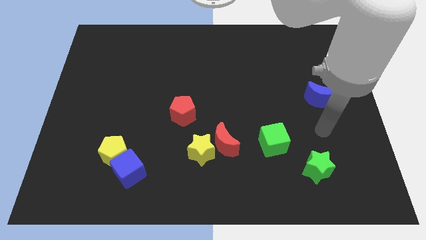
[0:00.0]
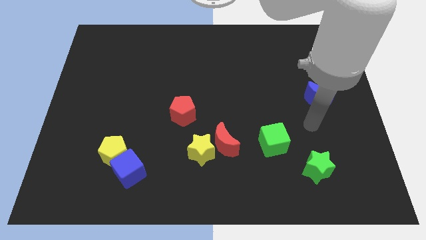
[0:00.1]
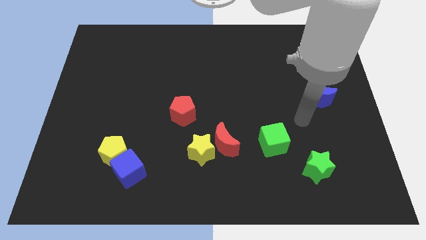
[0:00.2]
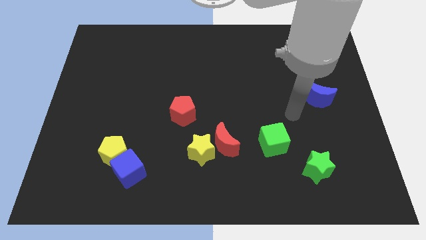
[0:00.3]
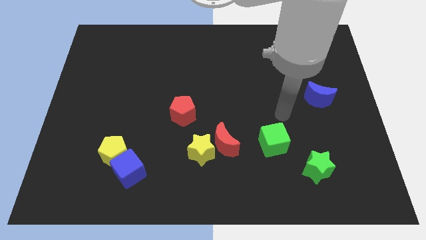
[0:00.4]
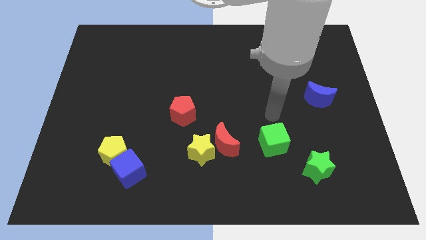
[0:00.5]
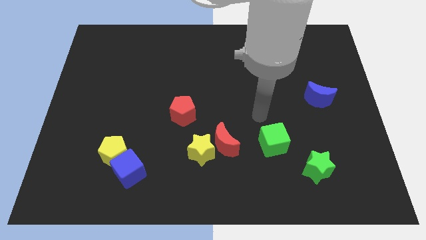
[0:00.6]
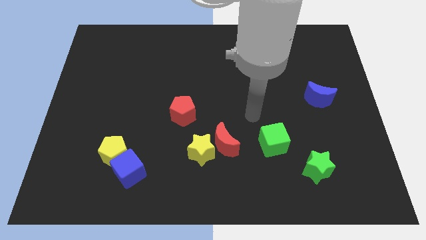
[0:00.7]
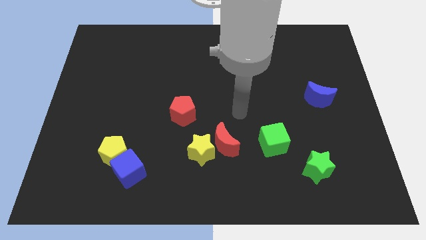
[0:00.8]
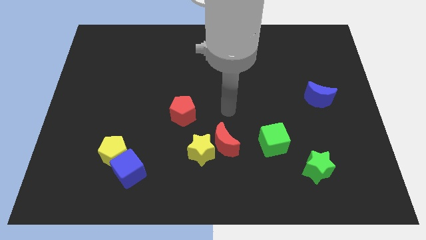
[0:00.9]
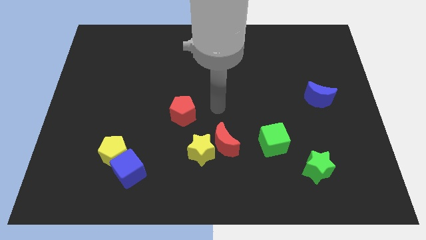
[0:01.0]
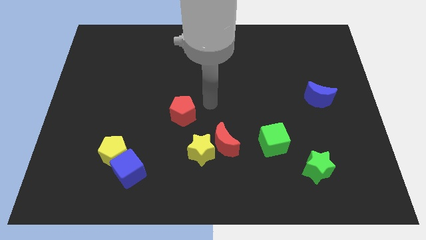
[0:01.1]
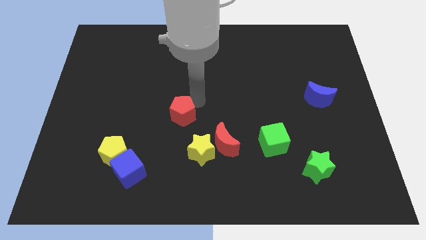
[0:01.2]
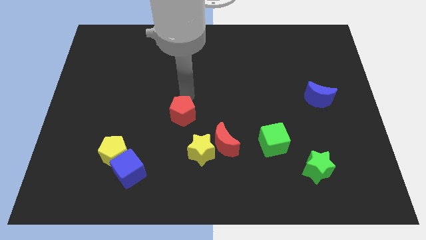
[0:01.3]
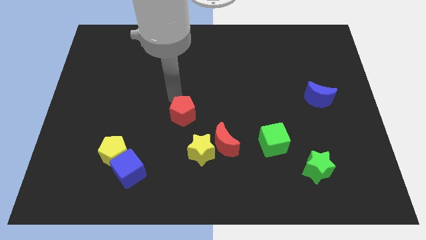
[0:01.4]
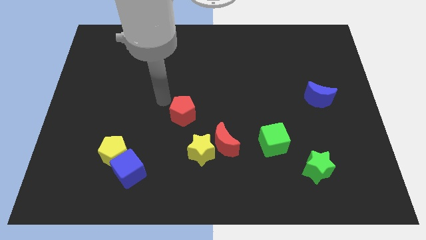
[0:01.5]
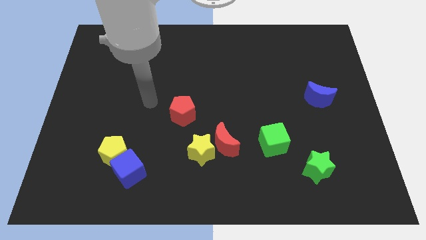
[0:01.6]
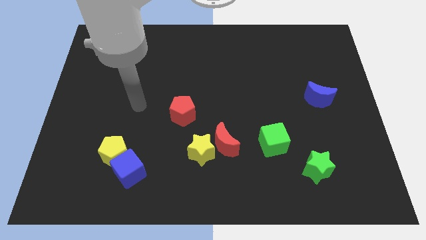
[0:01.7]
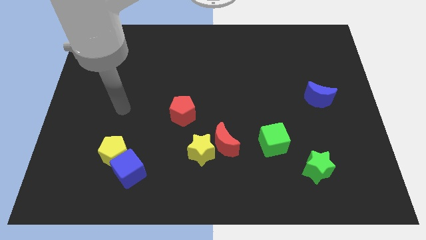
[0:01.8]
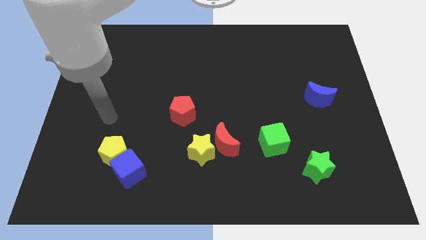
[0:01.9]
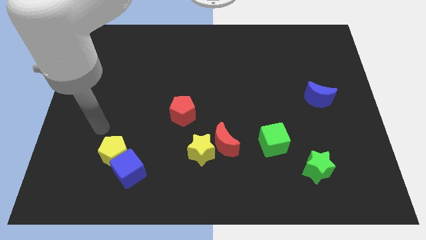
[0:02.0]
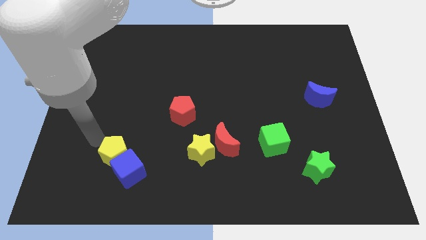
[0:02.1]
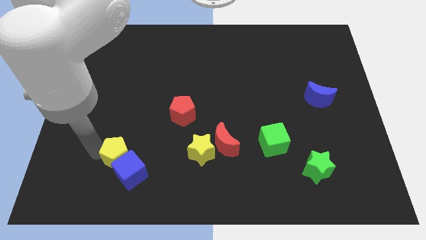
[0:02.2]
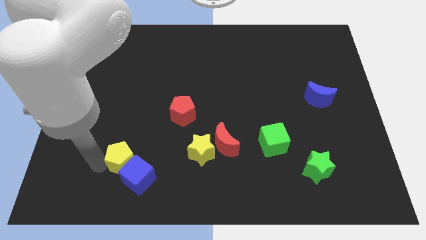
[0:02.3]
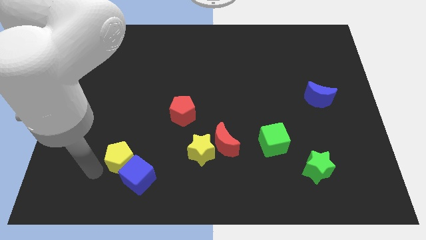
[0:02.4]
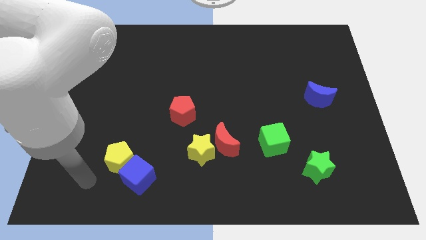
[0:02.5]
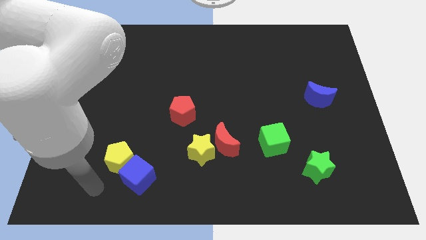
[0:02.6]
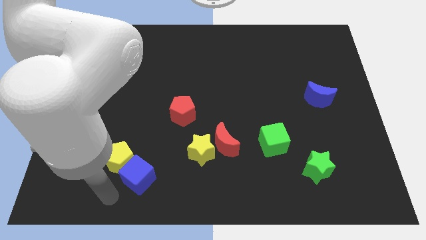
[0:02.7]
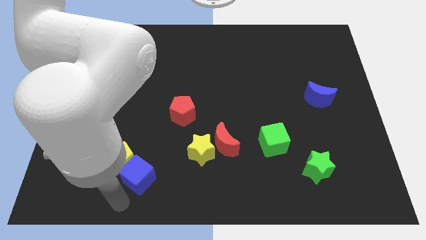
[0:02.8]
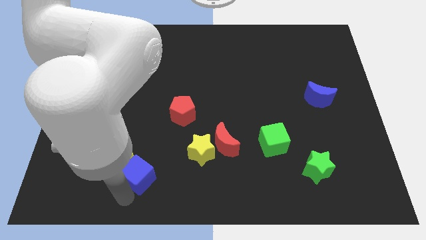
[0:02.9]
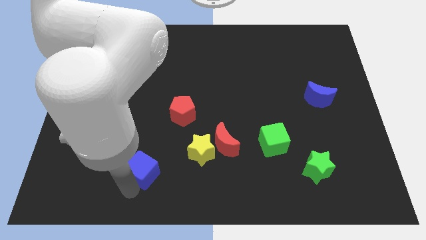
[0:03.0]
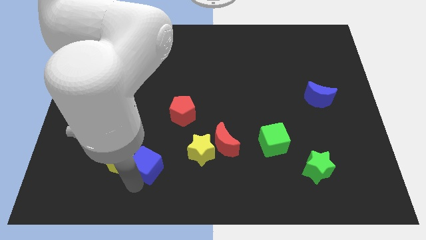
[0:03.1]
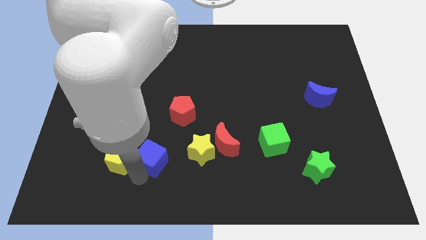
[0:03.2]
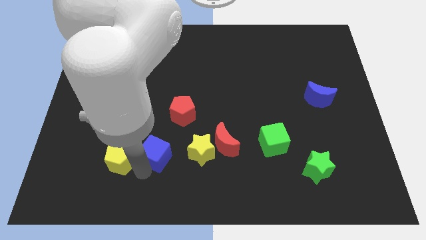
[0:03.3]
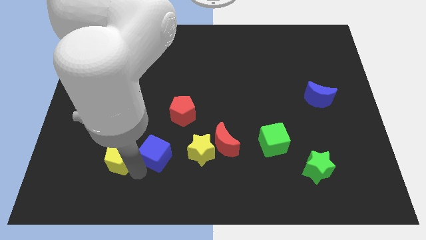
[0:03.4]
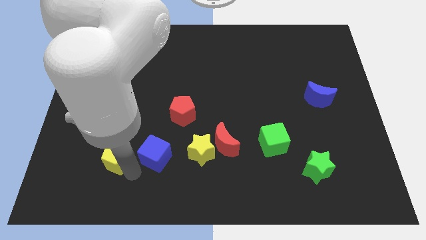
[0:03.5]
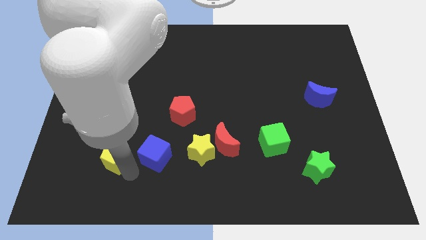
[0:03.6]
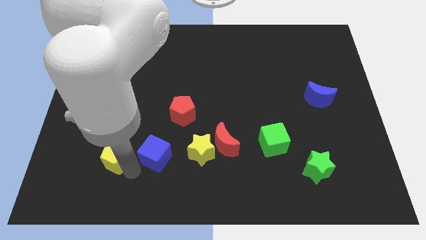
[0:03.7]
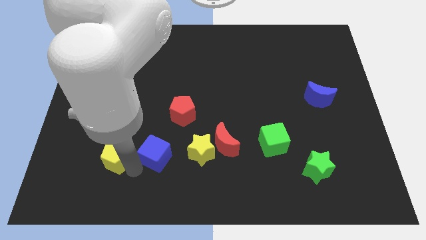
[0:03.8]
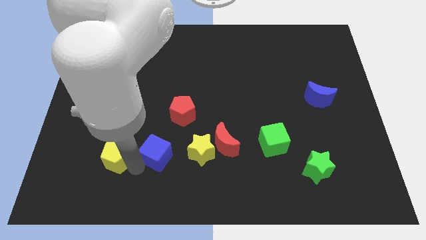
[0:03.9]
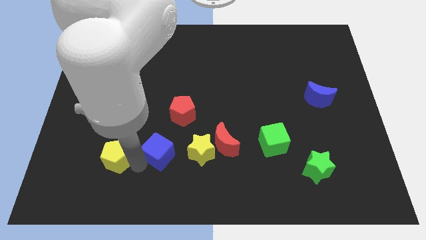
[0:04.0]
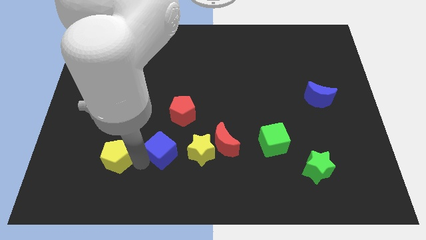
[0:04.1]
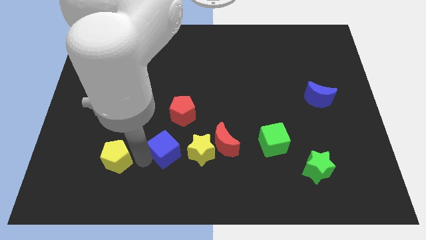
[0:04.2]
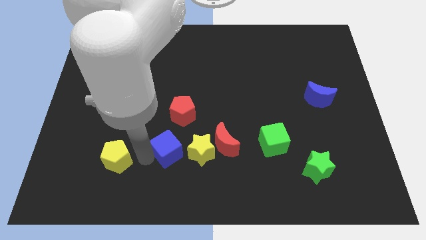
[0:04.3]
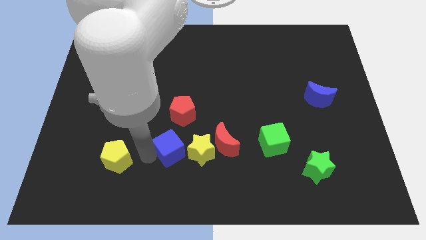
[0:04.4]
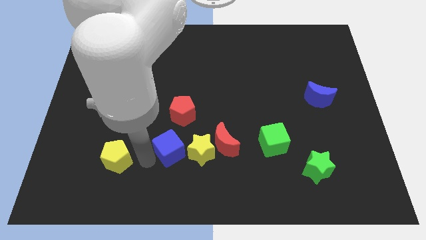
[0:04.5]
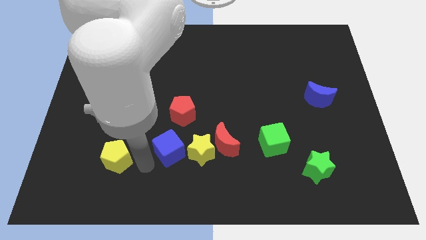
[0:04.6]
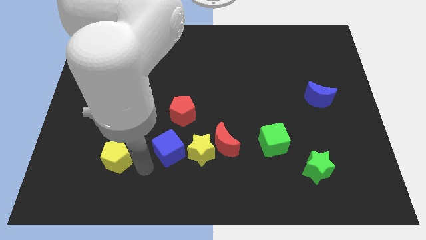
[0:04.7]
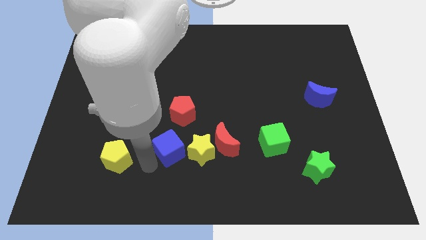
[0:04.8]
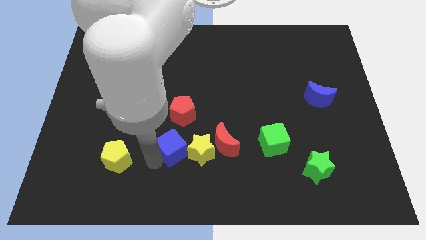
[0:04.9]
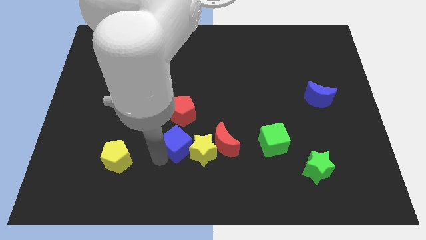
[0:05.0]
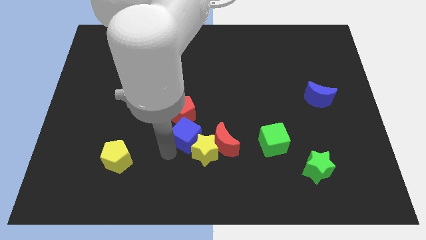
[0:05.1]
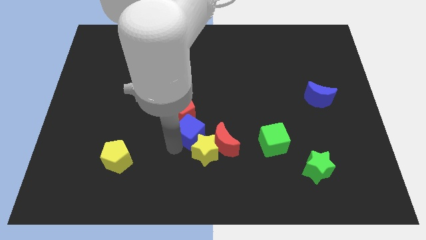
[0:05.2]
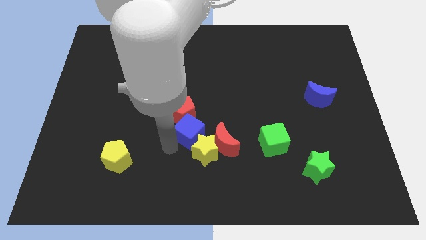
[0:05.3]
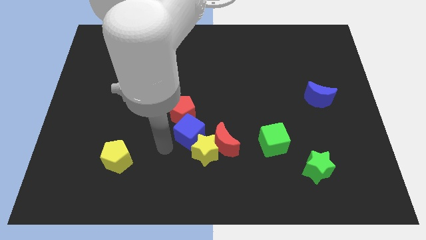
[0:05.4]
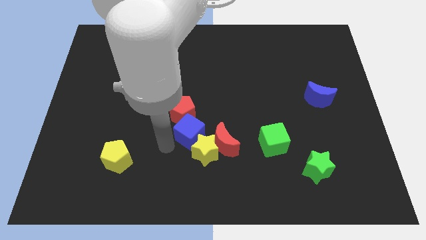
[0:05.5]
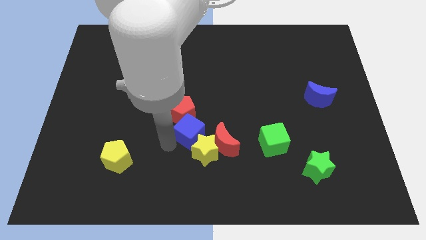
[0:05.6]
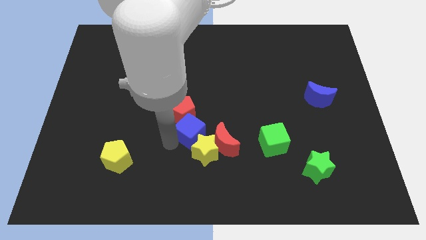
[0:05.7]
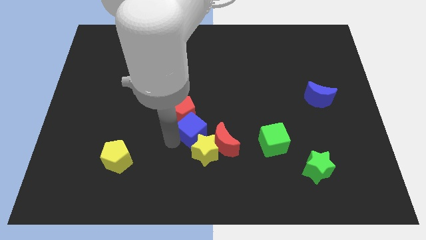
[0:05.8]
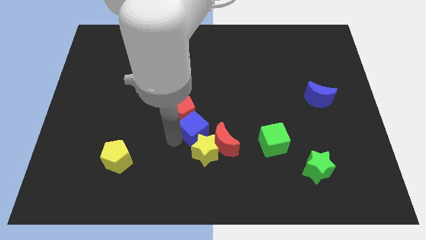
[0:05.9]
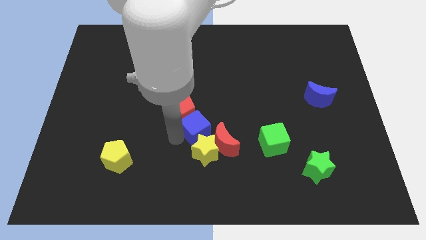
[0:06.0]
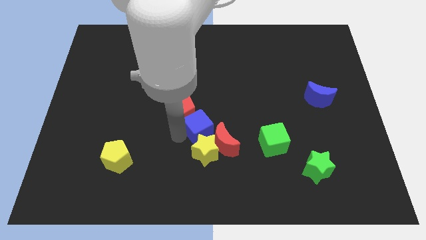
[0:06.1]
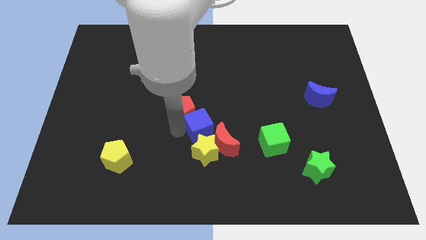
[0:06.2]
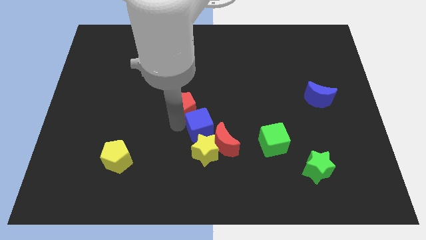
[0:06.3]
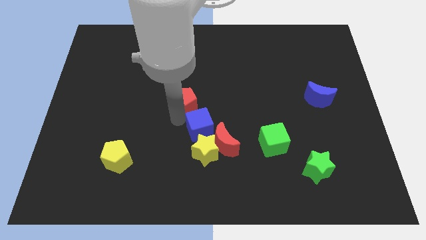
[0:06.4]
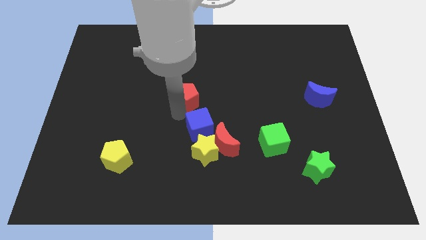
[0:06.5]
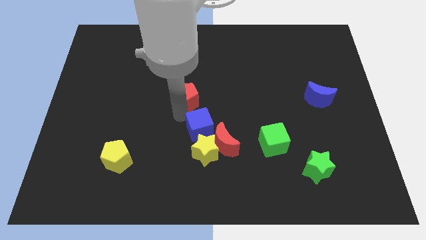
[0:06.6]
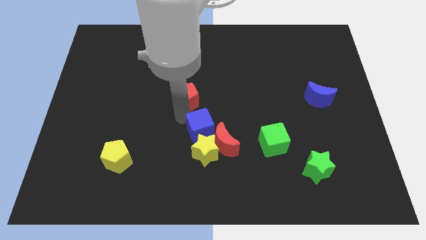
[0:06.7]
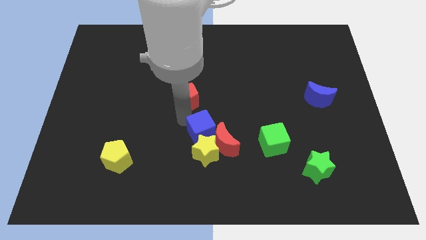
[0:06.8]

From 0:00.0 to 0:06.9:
put the blue cube towards the red moon
